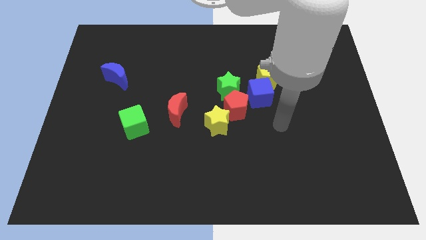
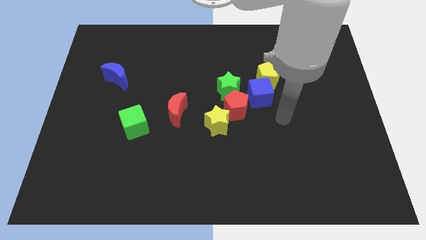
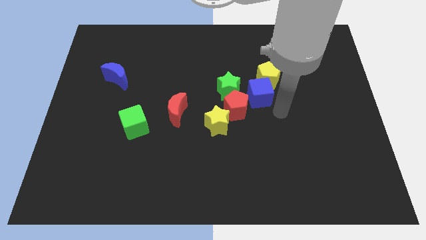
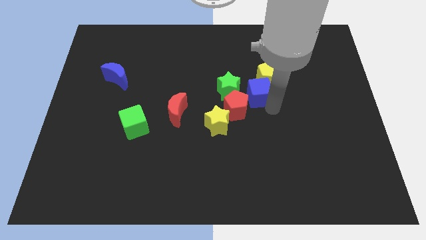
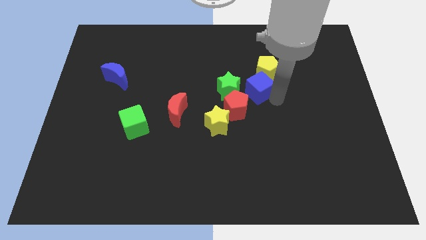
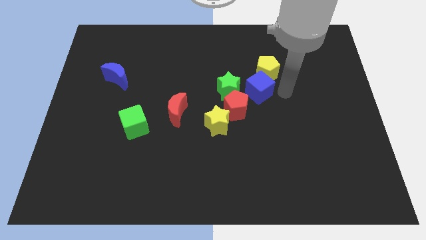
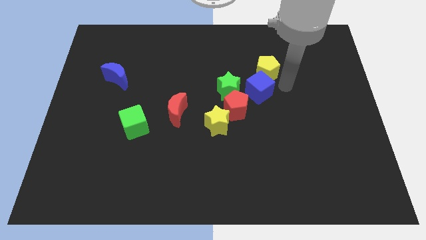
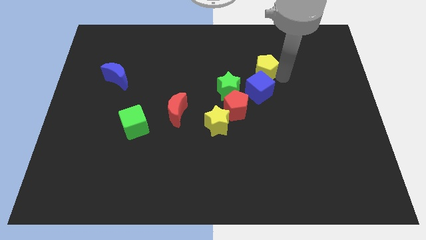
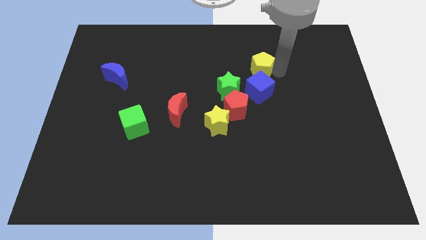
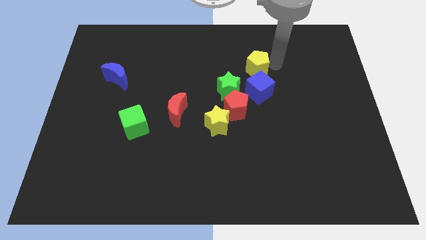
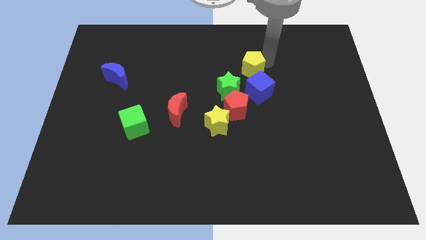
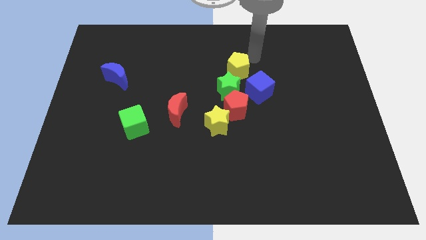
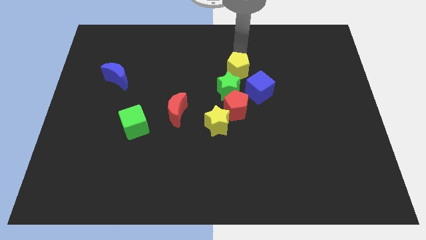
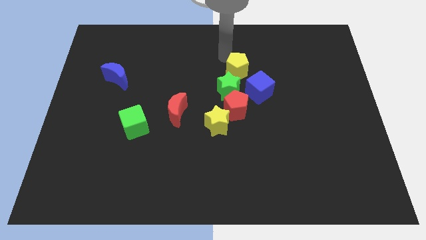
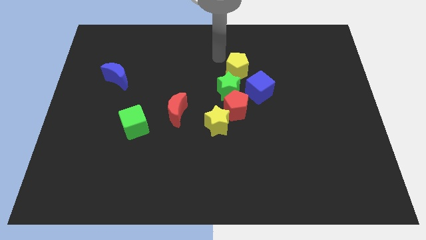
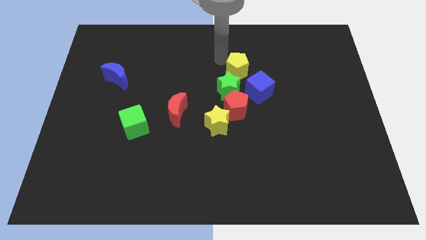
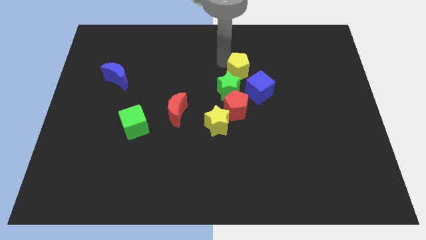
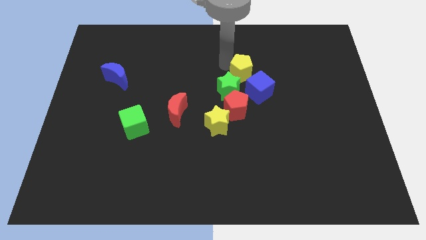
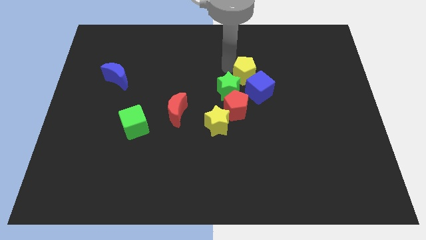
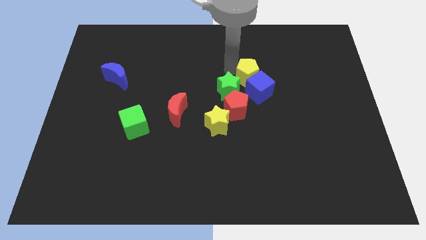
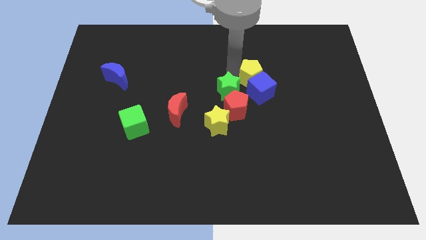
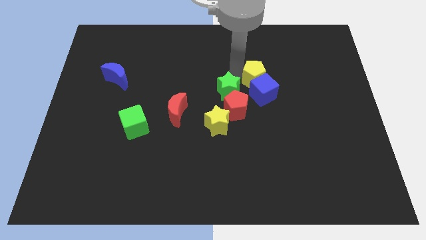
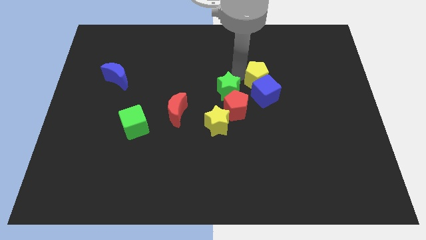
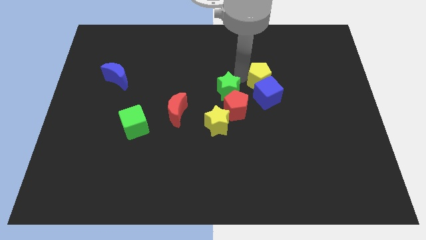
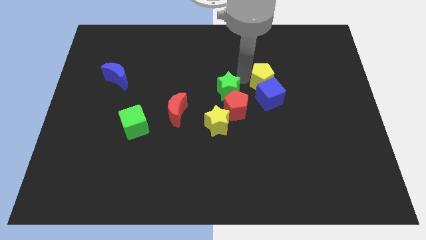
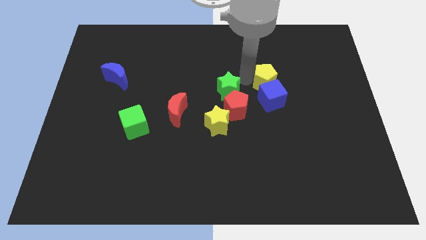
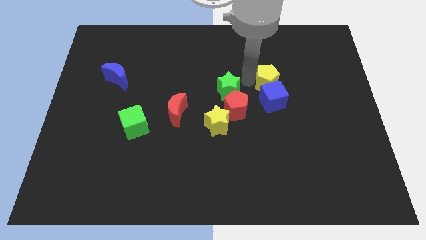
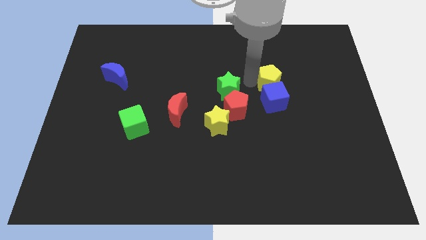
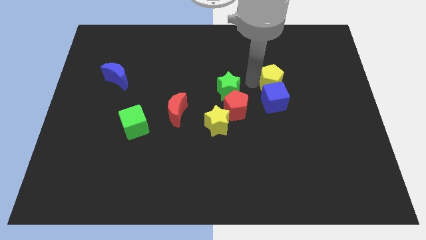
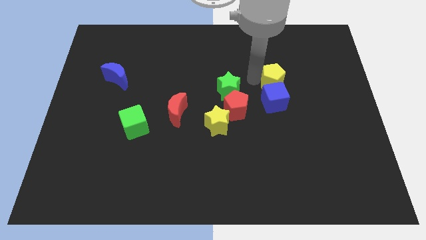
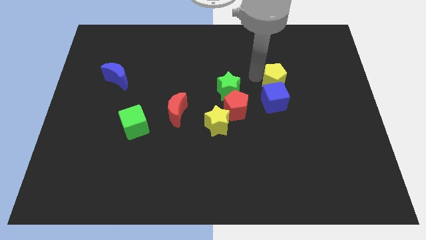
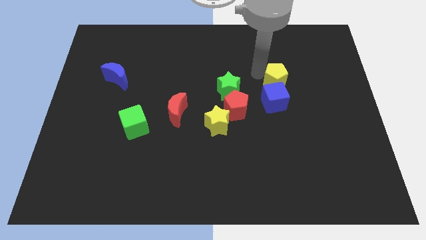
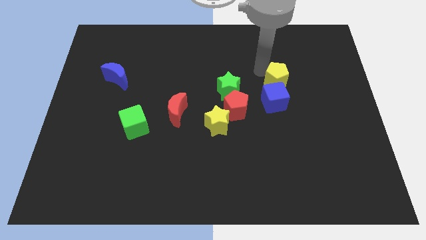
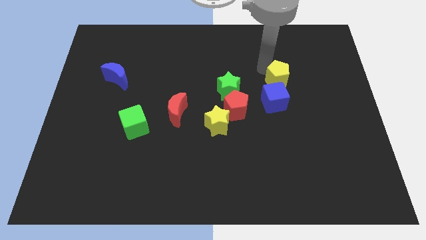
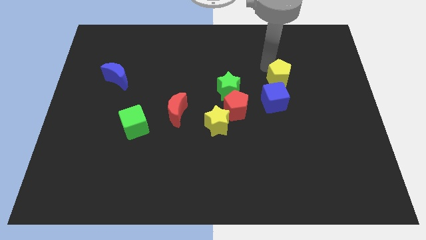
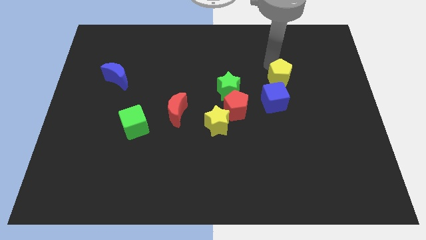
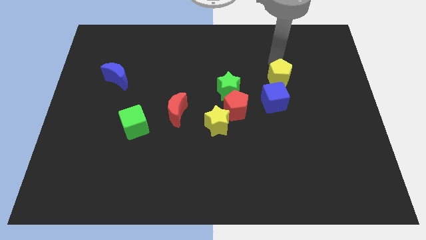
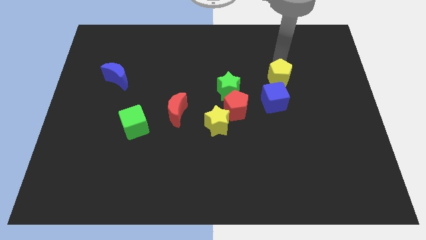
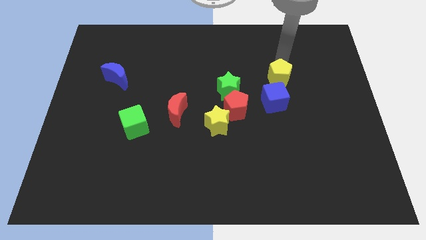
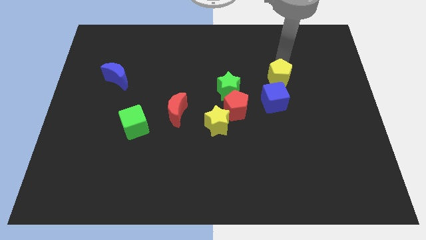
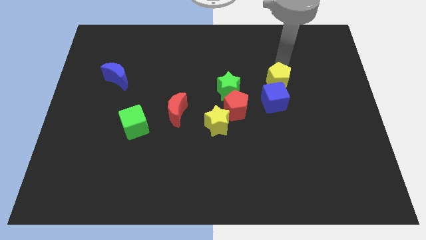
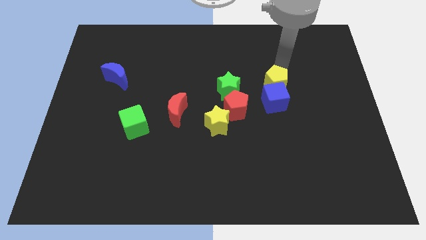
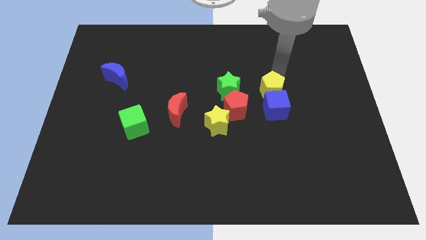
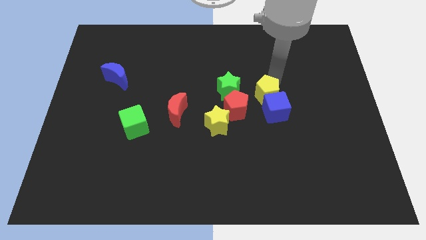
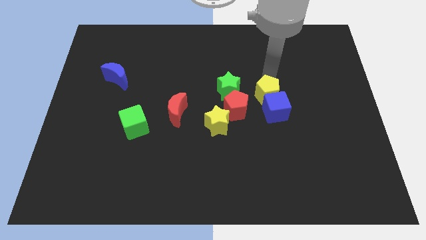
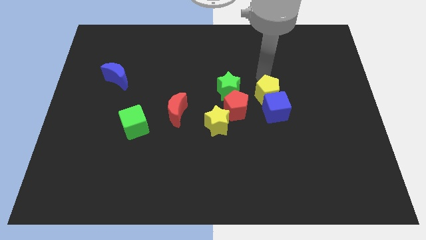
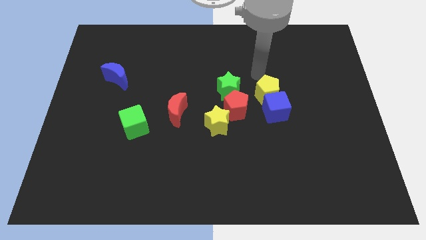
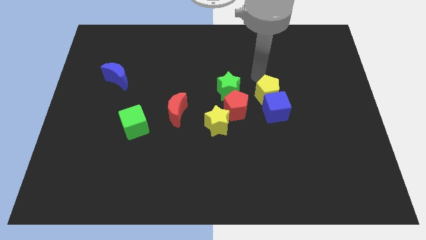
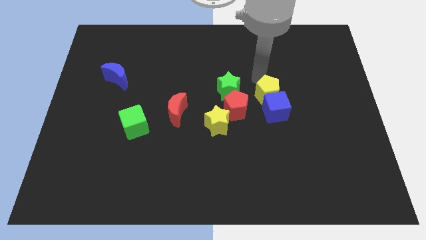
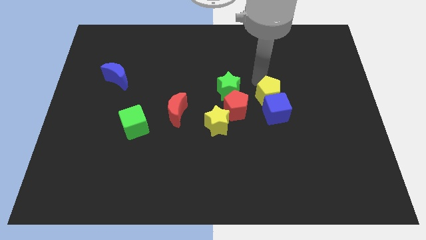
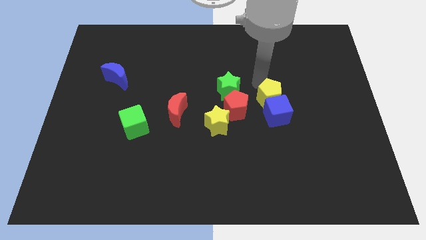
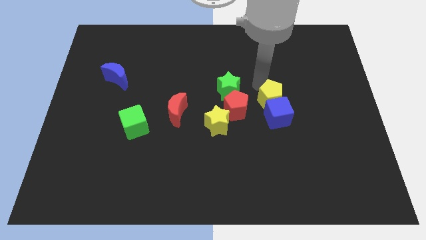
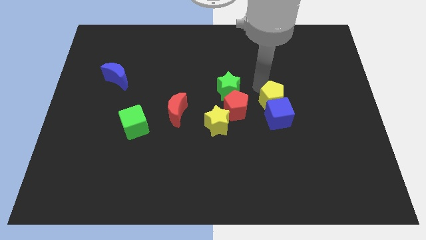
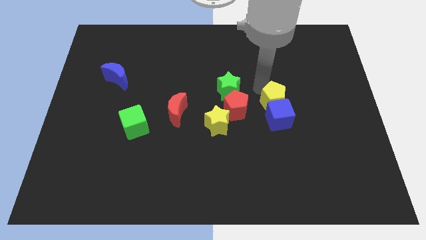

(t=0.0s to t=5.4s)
move the yellow pentagon downwards a little bit

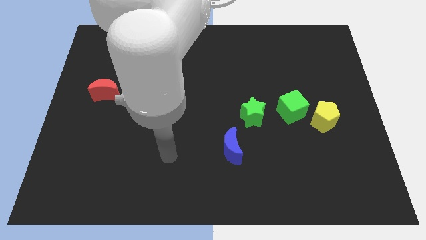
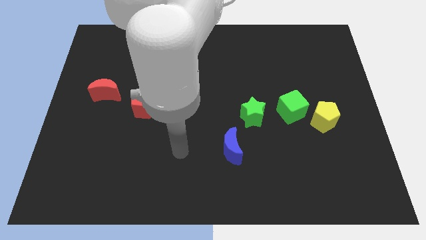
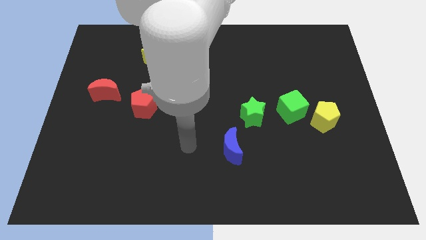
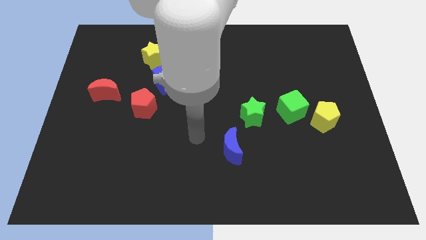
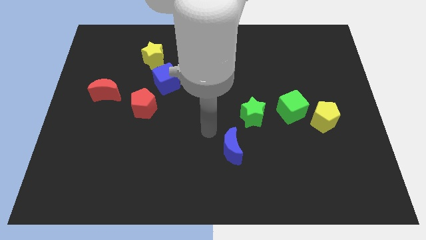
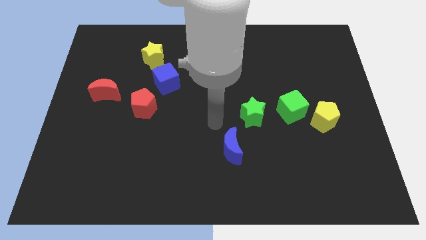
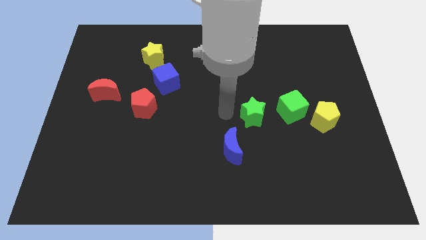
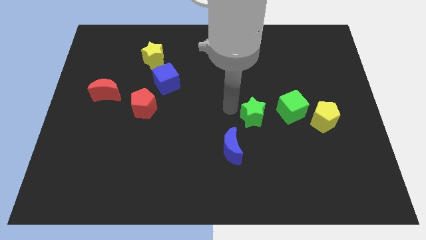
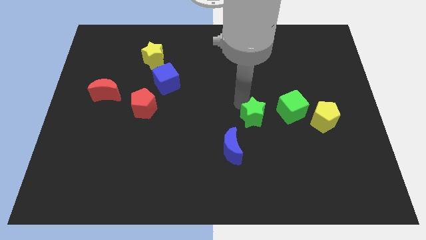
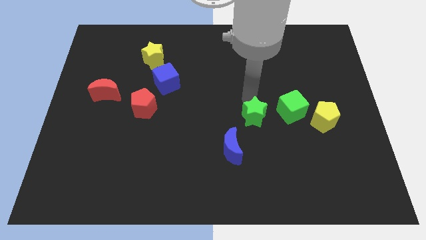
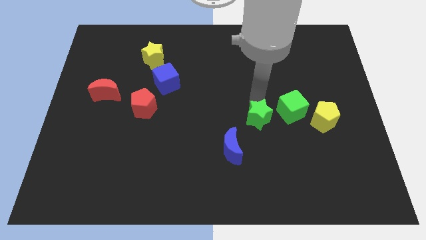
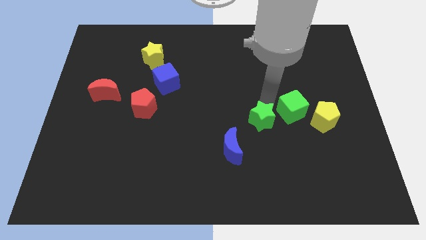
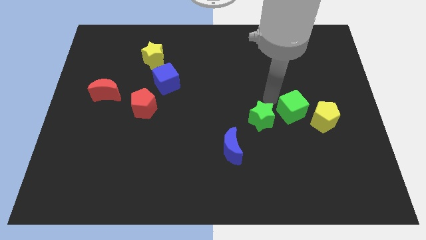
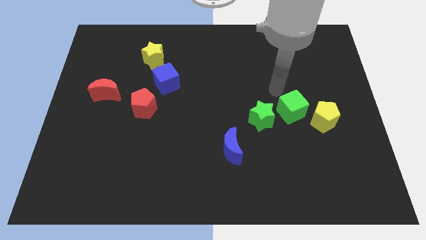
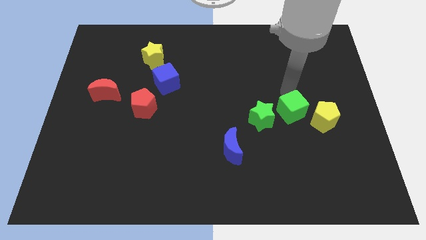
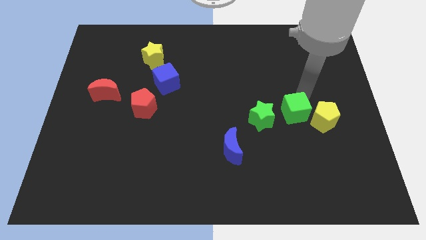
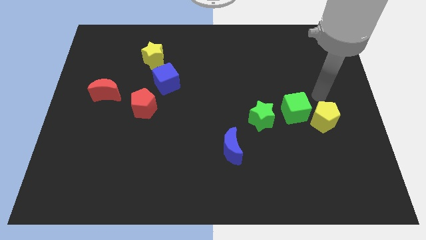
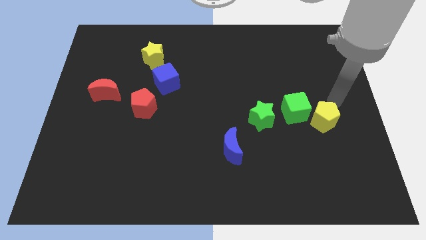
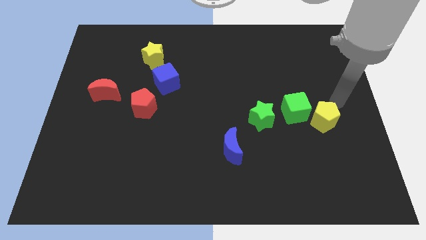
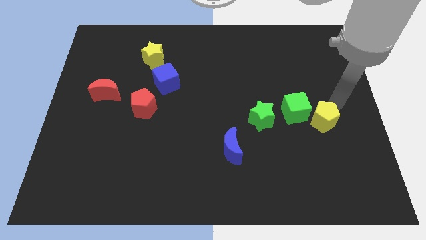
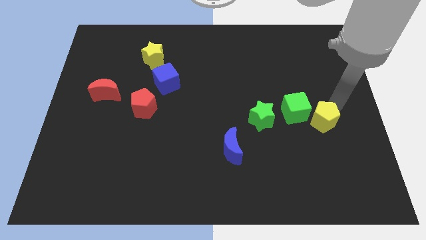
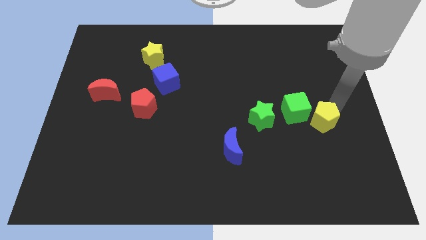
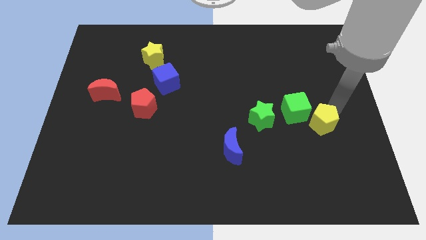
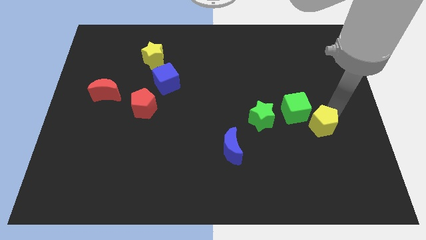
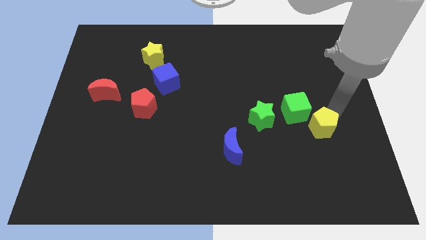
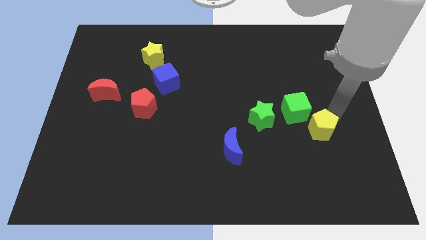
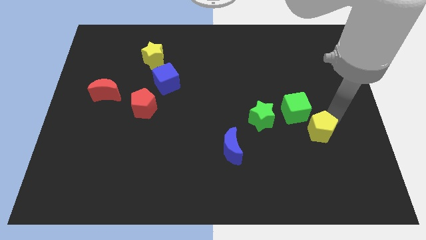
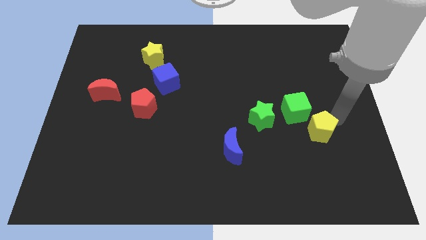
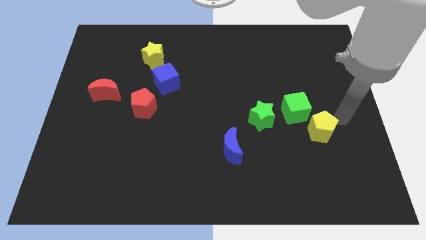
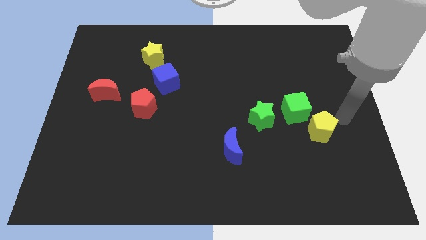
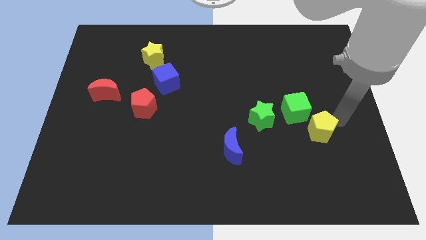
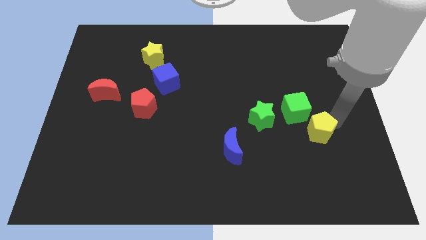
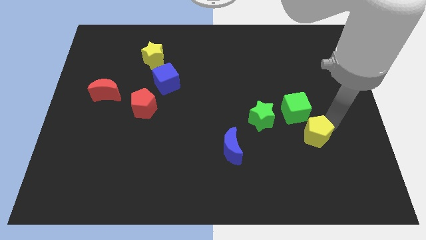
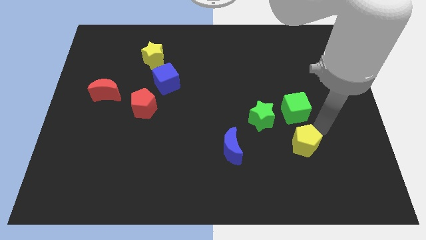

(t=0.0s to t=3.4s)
move the yellow pentagon somewhat downwards and to the left diagonally
